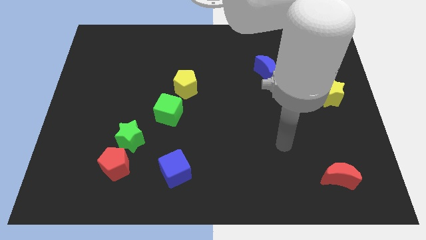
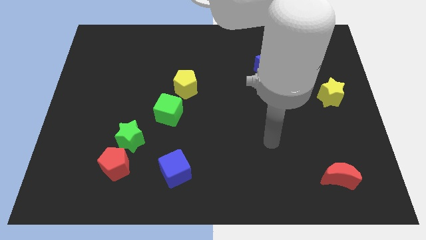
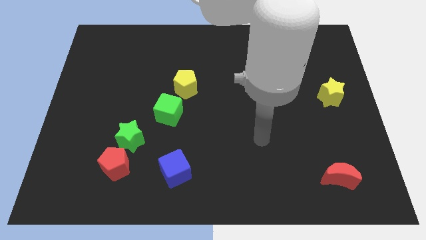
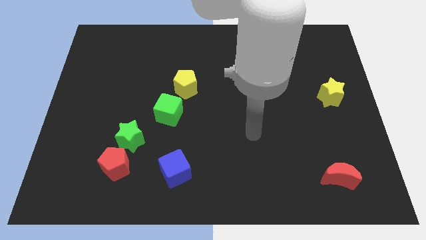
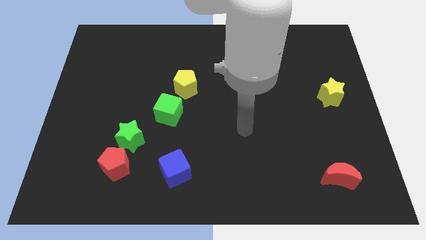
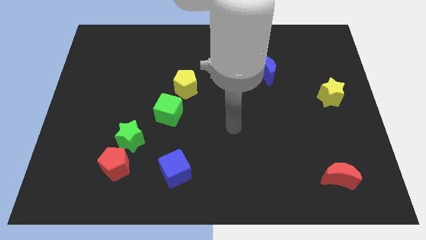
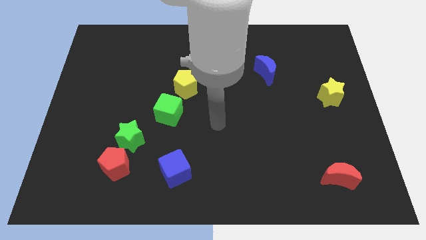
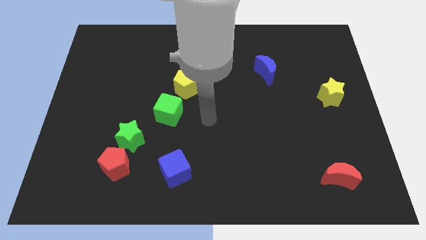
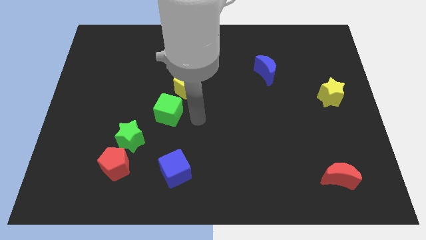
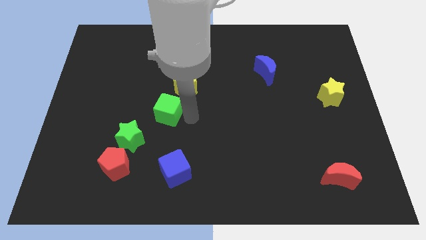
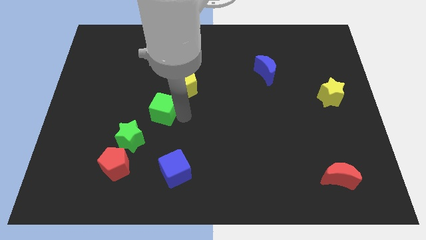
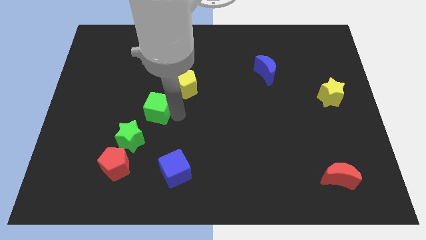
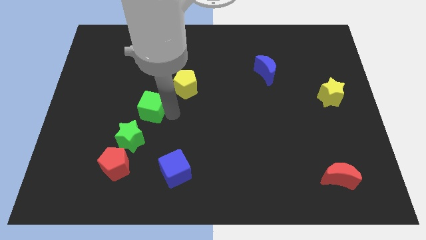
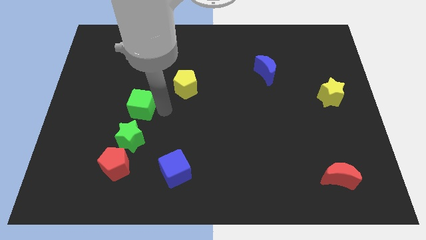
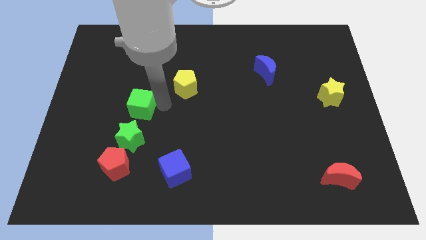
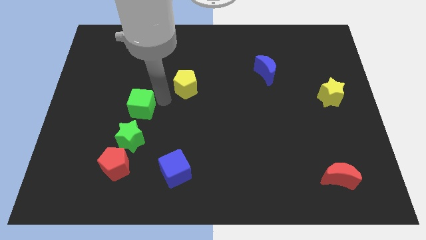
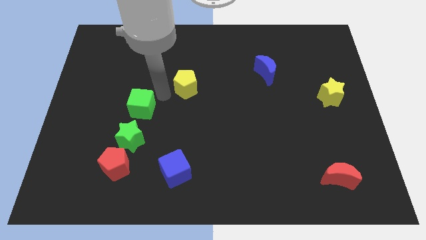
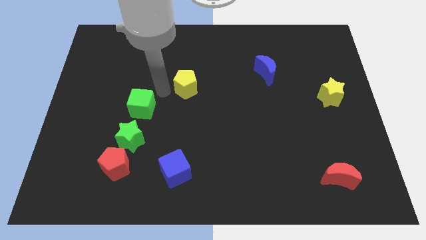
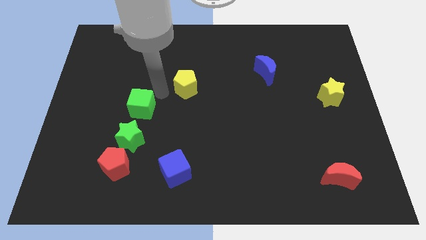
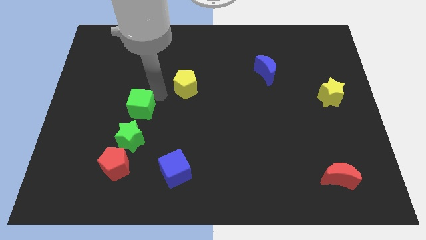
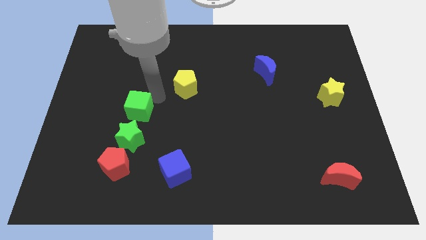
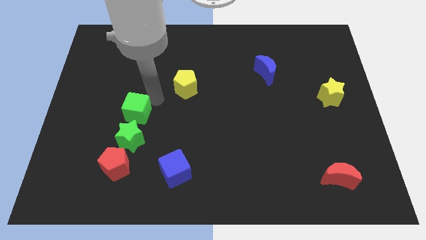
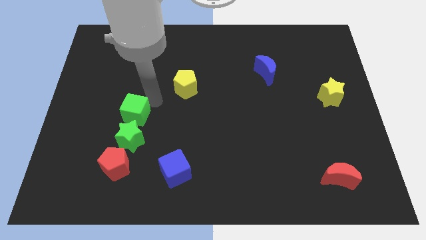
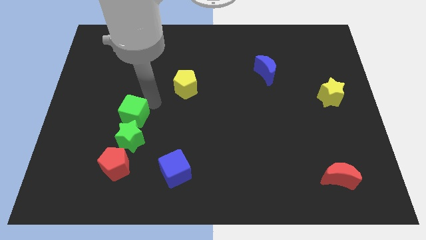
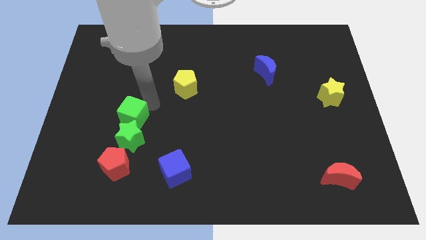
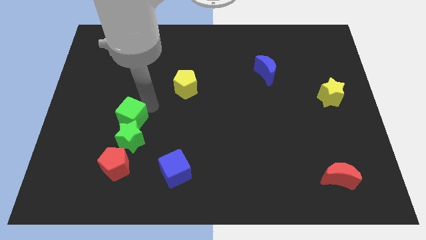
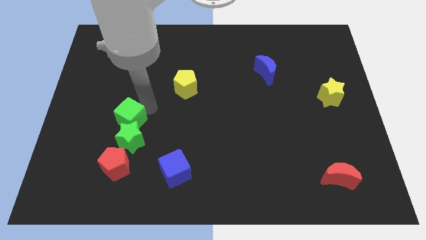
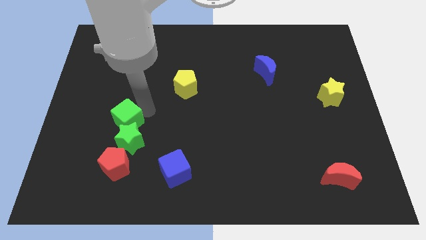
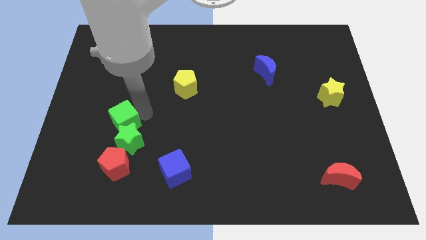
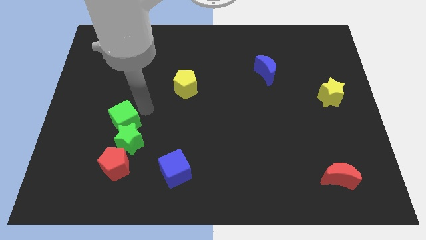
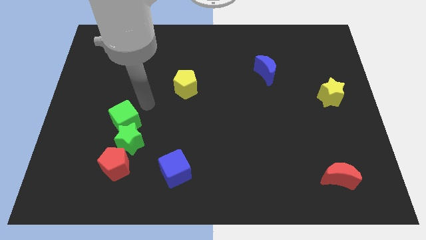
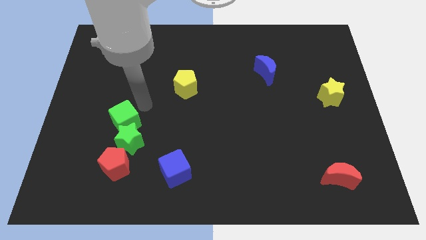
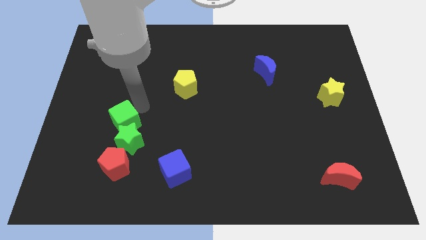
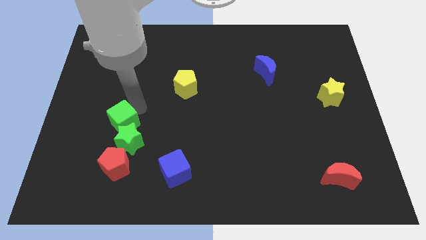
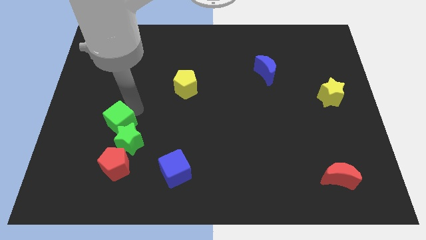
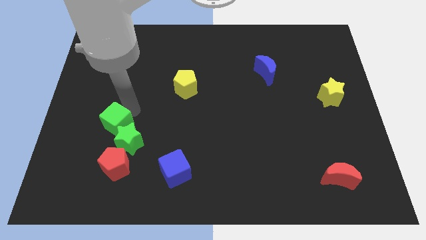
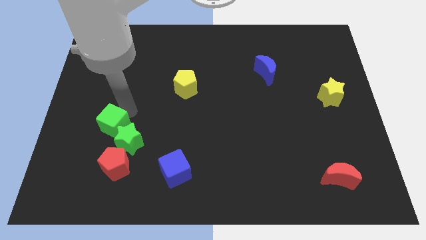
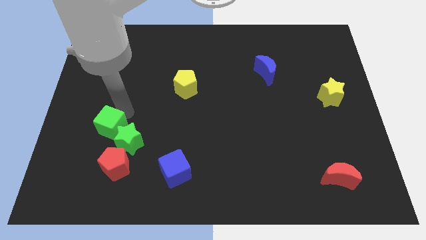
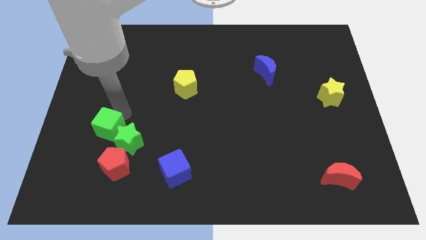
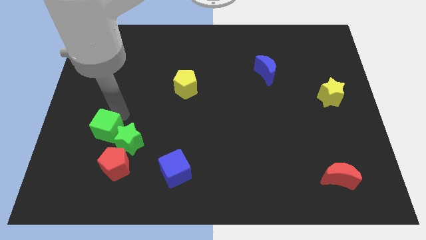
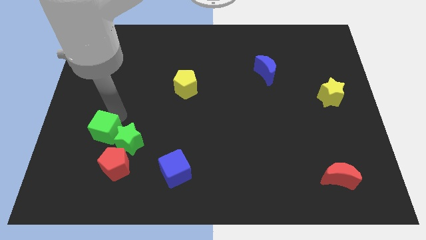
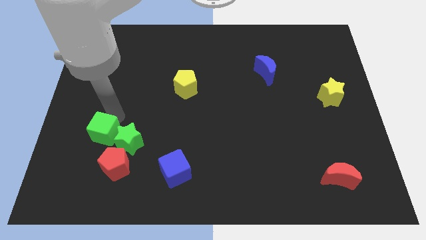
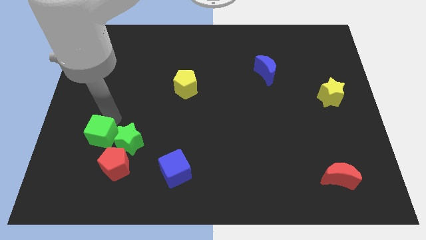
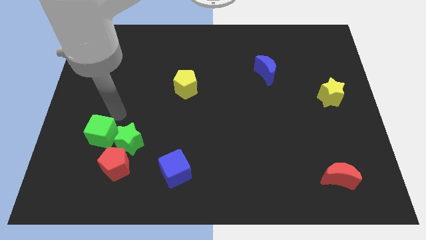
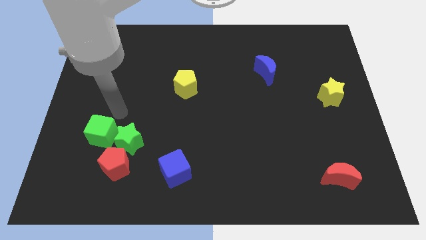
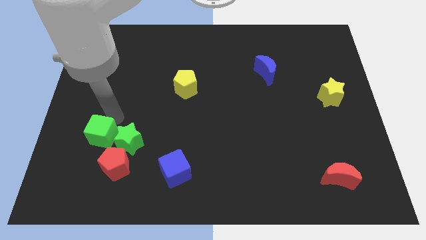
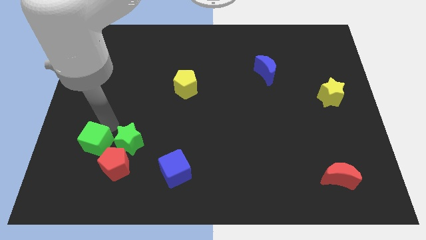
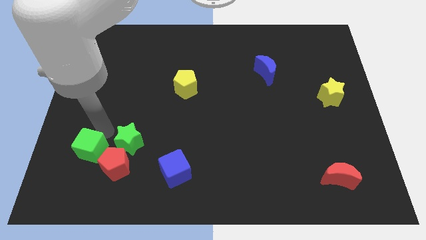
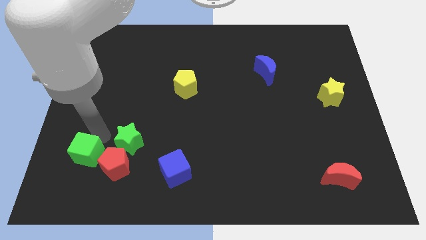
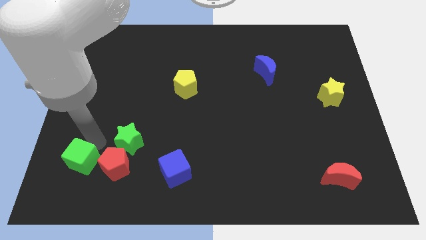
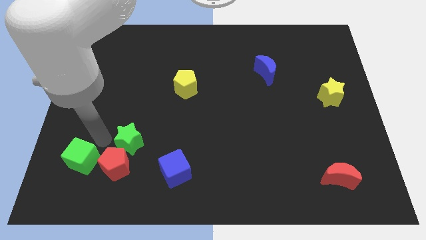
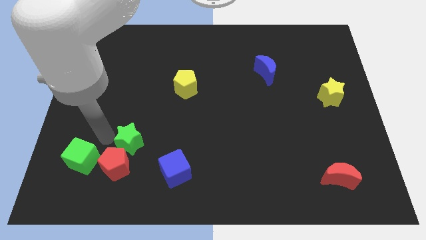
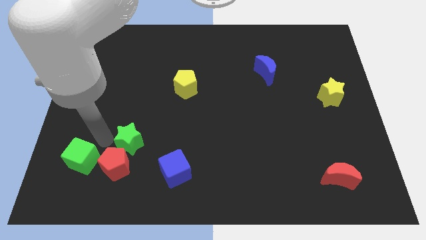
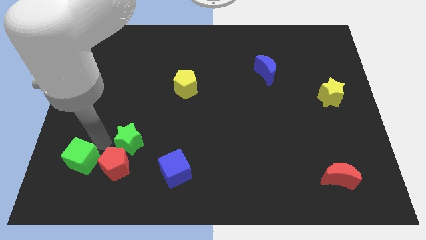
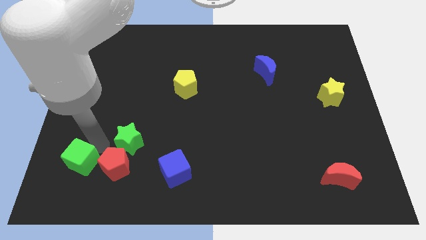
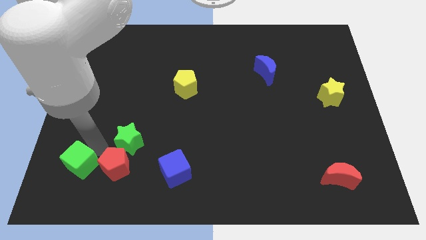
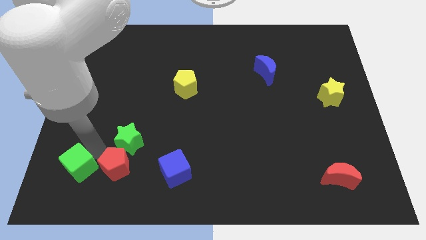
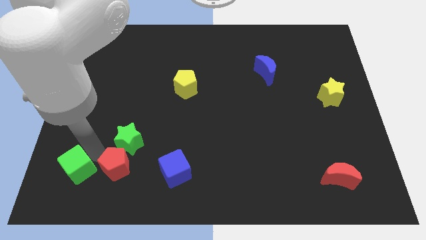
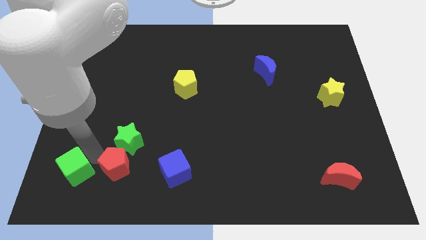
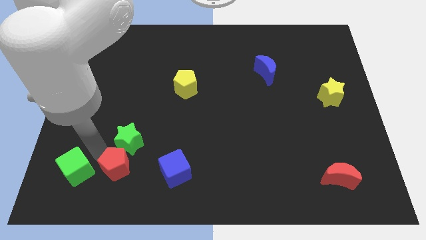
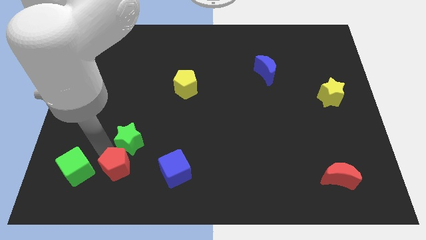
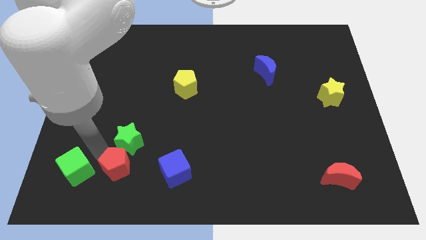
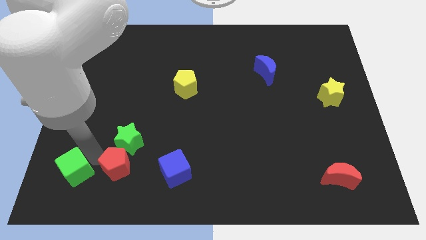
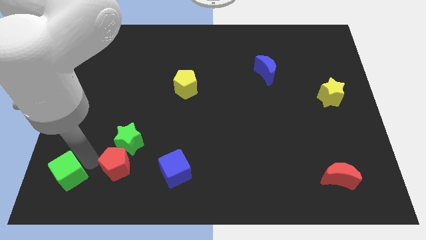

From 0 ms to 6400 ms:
push the green cube to the bottom left corner

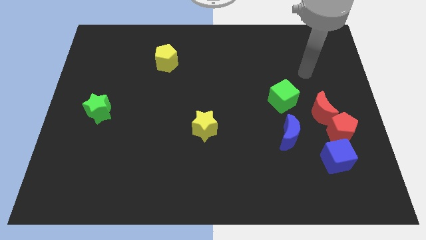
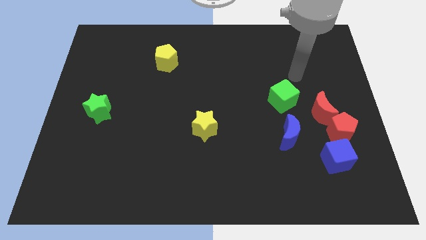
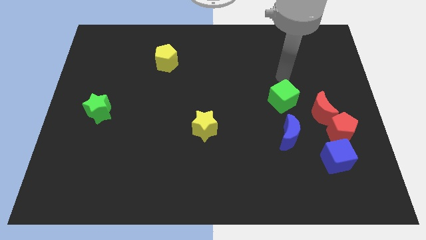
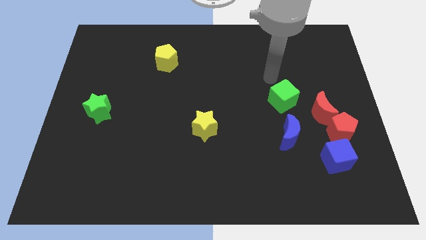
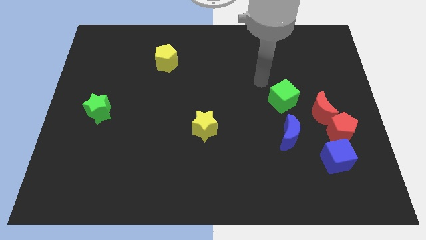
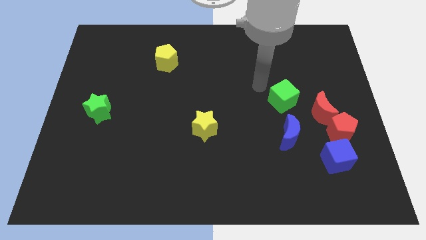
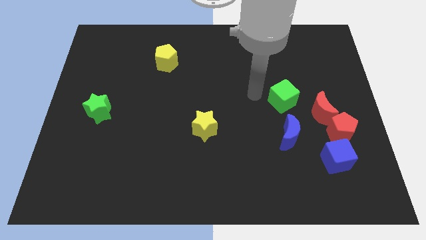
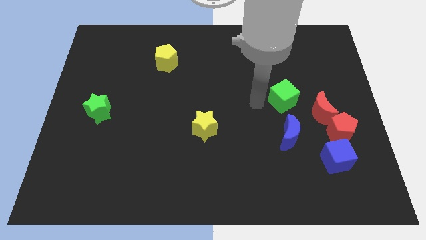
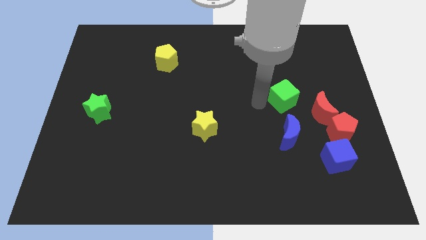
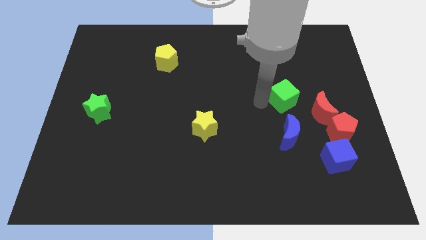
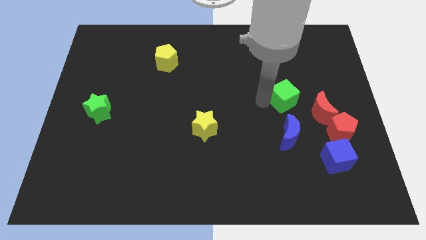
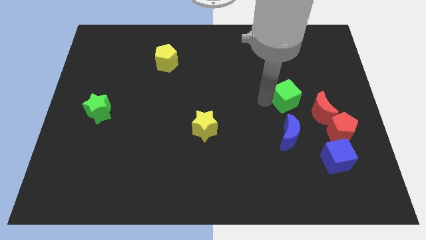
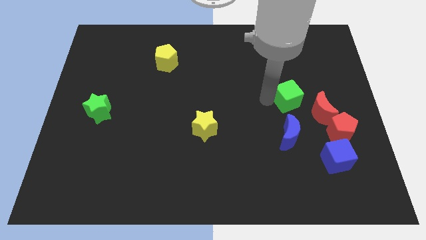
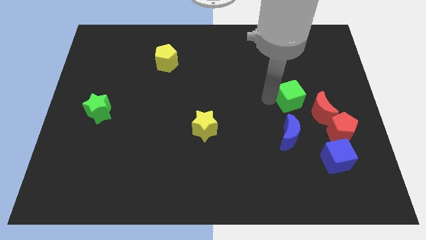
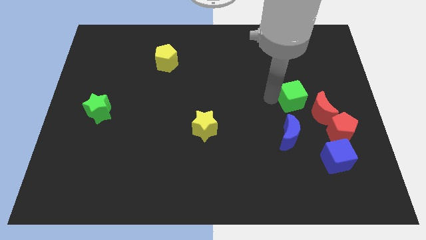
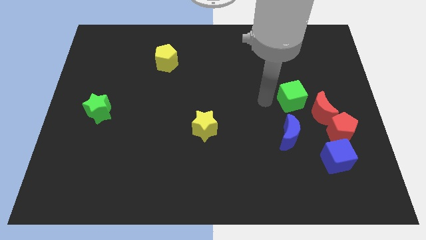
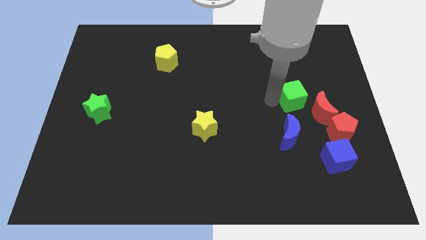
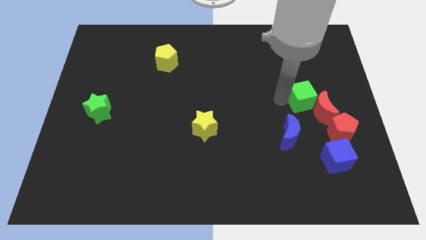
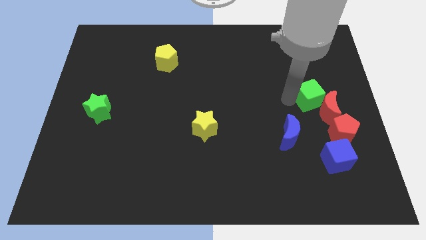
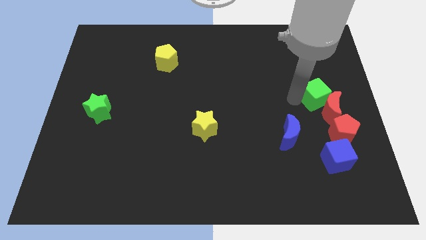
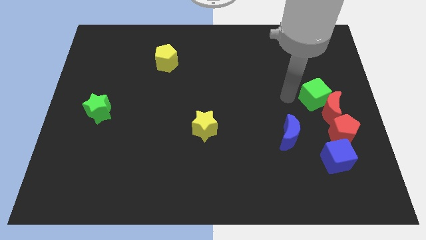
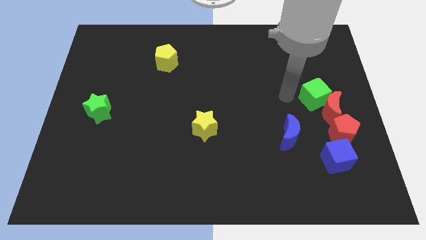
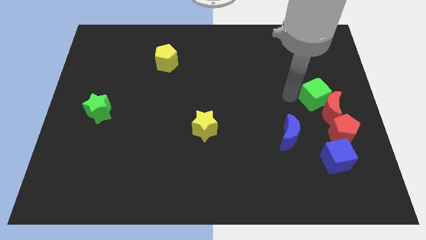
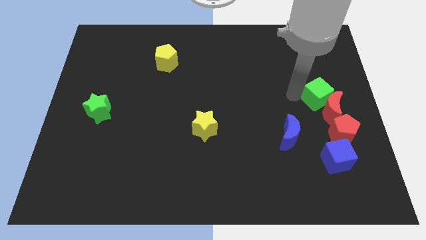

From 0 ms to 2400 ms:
slide the green cube to the center right
